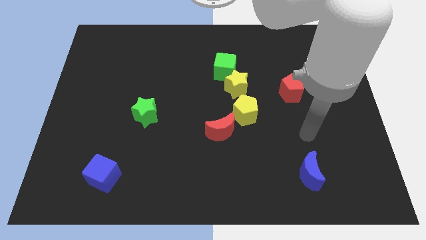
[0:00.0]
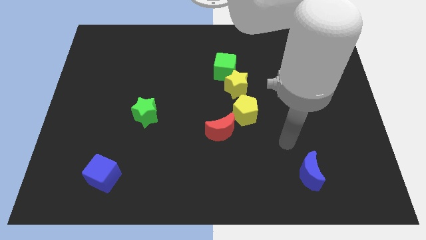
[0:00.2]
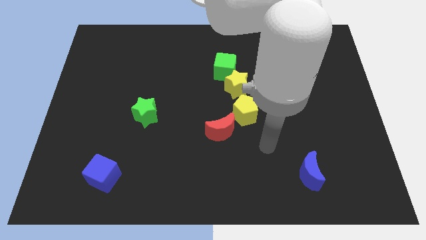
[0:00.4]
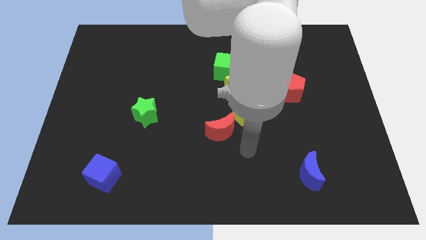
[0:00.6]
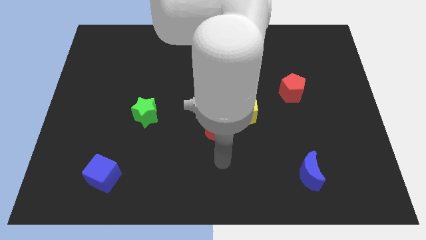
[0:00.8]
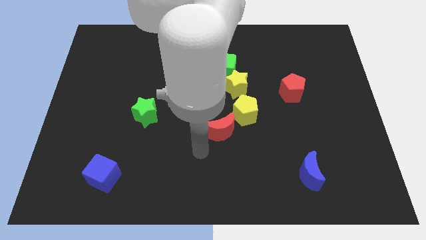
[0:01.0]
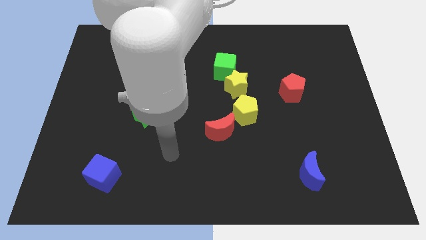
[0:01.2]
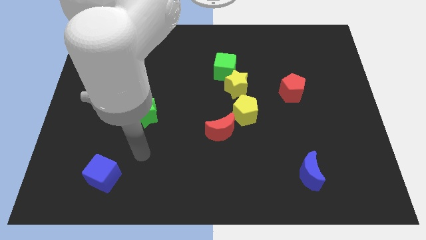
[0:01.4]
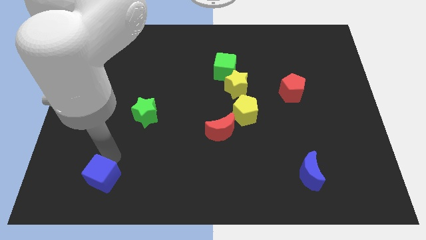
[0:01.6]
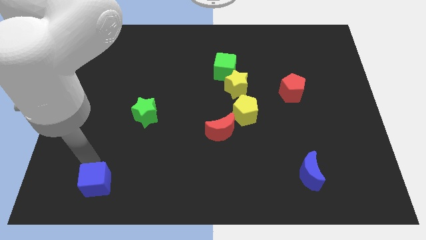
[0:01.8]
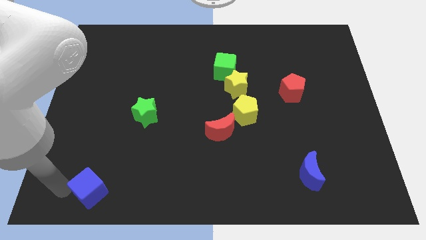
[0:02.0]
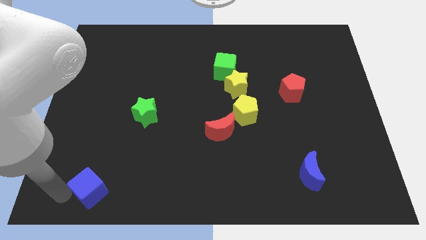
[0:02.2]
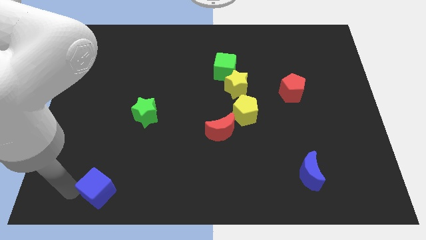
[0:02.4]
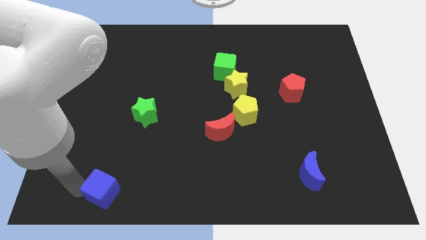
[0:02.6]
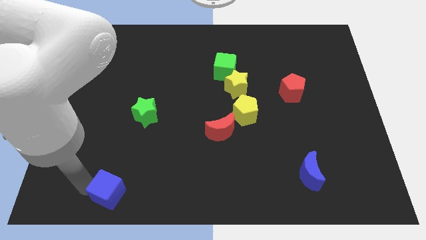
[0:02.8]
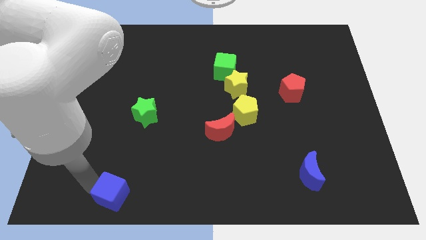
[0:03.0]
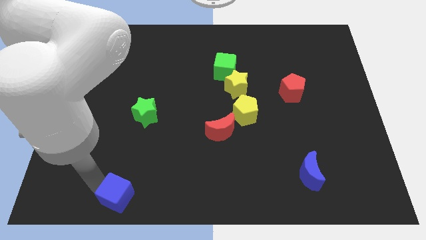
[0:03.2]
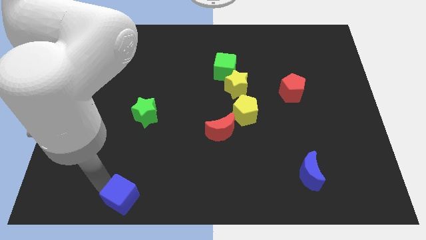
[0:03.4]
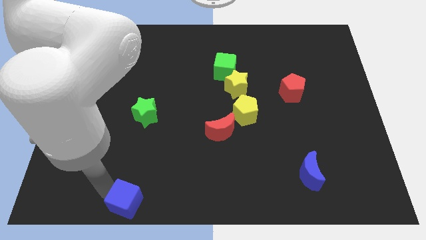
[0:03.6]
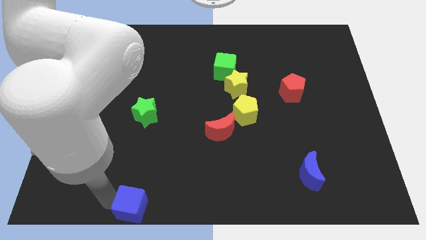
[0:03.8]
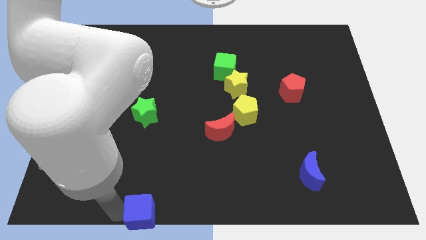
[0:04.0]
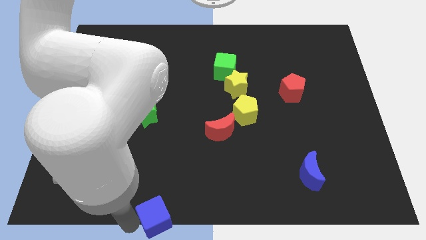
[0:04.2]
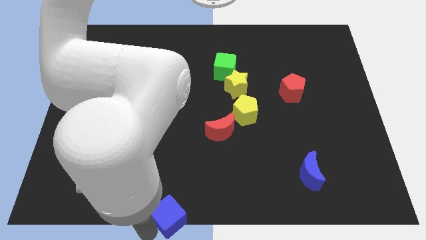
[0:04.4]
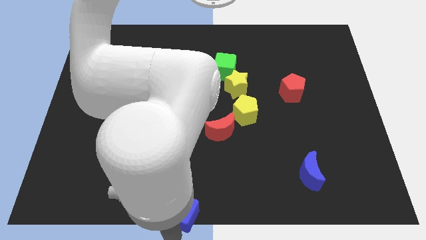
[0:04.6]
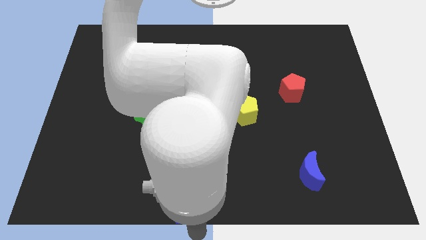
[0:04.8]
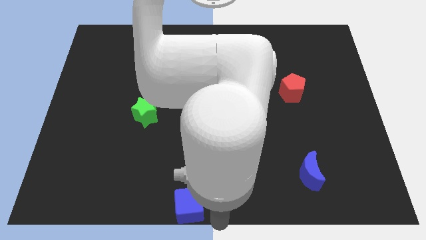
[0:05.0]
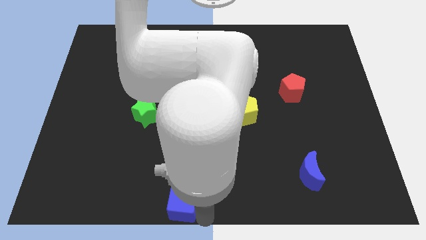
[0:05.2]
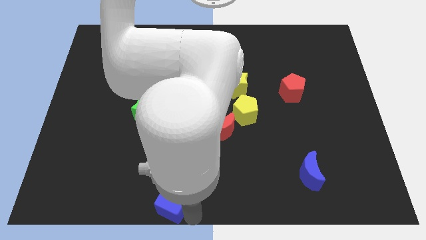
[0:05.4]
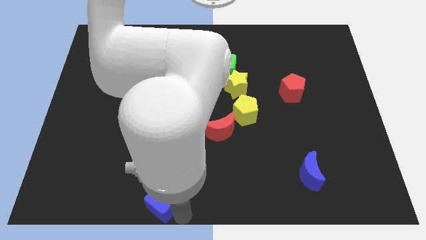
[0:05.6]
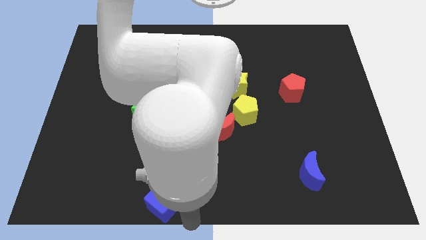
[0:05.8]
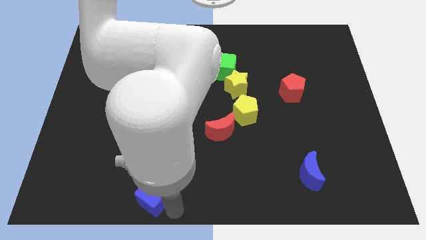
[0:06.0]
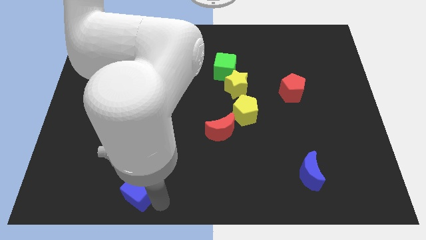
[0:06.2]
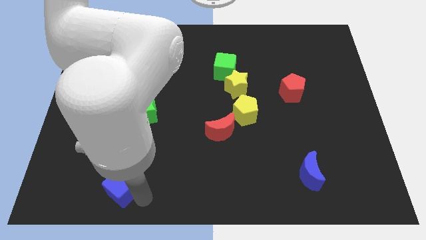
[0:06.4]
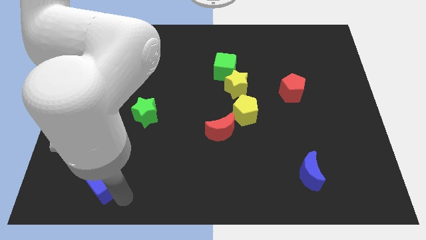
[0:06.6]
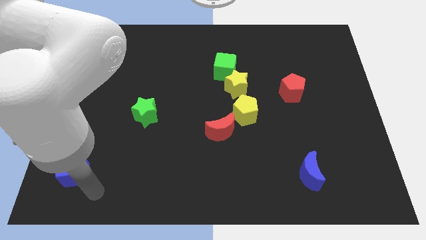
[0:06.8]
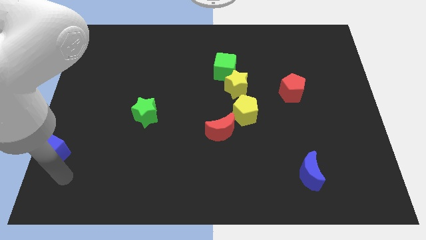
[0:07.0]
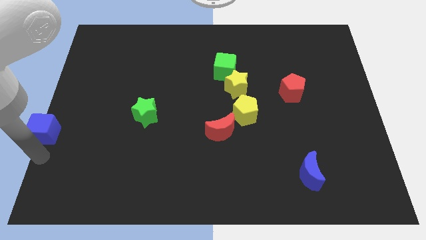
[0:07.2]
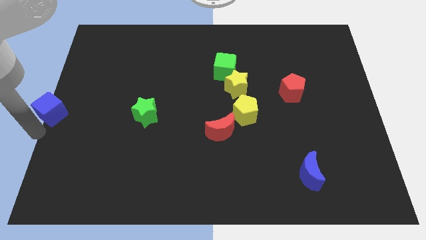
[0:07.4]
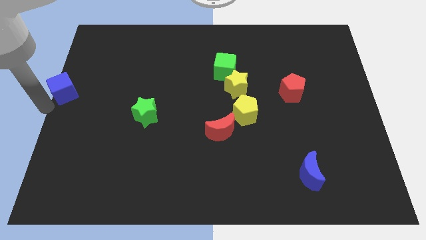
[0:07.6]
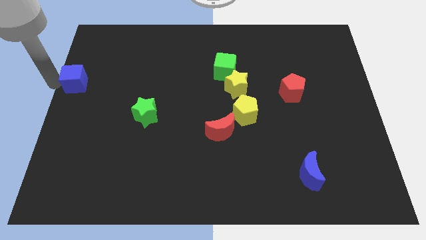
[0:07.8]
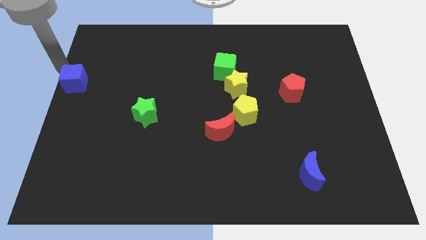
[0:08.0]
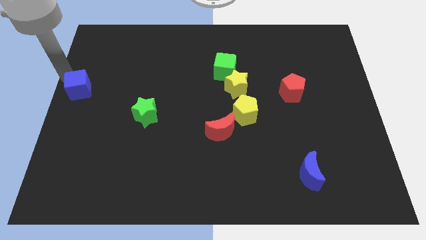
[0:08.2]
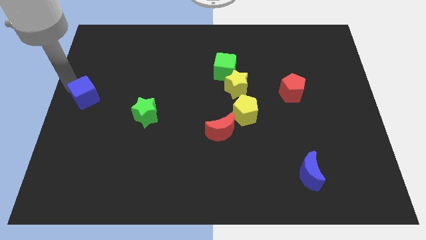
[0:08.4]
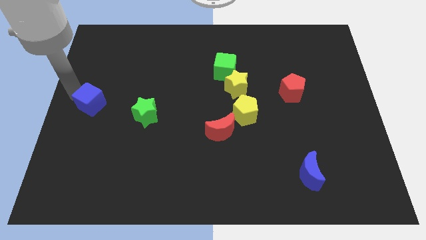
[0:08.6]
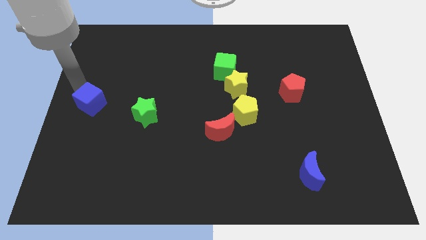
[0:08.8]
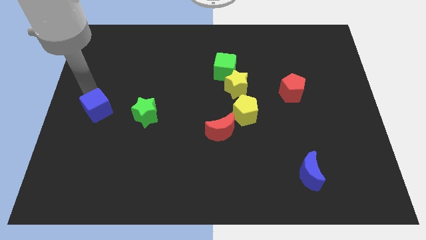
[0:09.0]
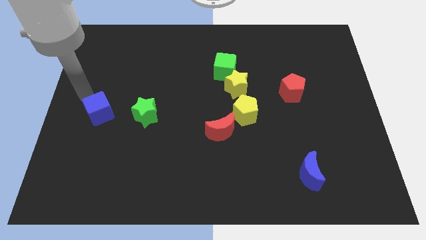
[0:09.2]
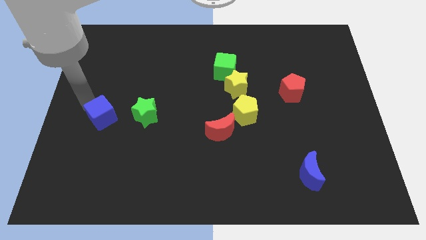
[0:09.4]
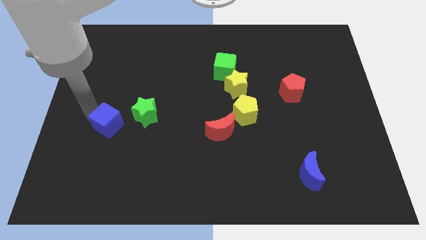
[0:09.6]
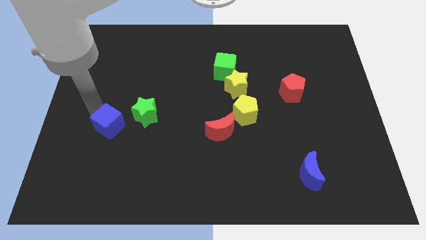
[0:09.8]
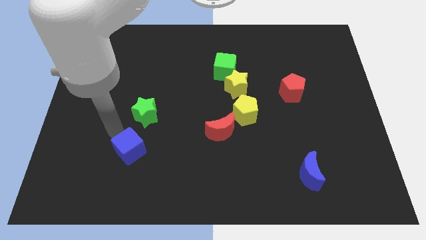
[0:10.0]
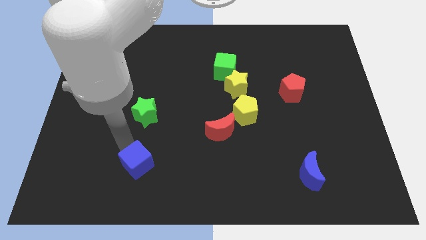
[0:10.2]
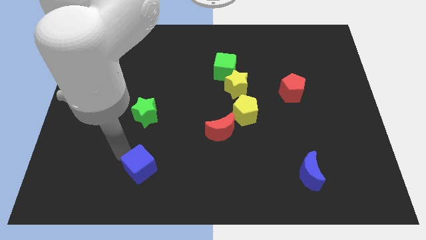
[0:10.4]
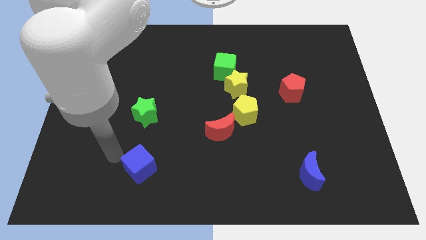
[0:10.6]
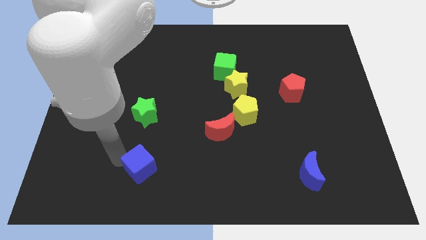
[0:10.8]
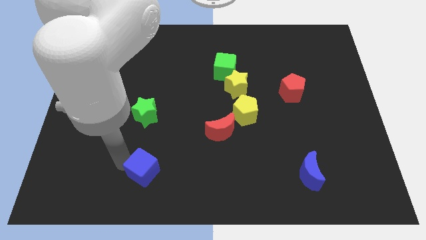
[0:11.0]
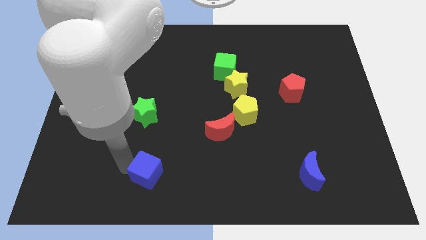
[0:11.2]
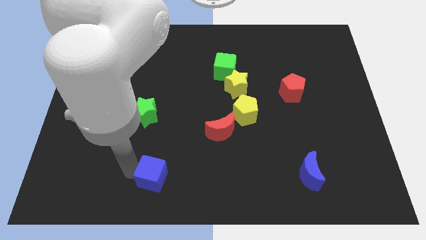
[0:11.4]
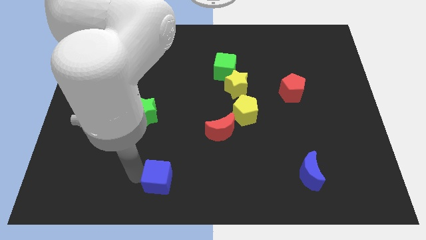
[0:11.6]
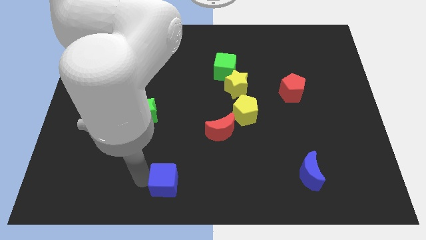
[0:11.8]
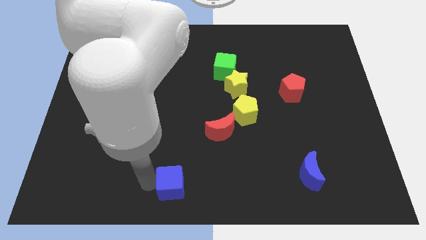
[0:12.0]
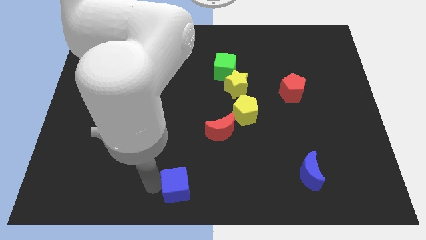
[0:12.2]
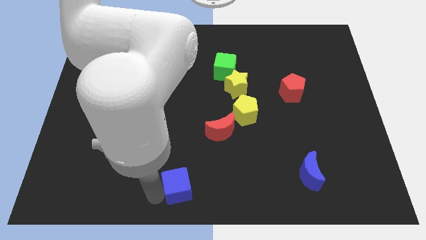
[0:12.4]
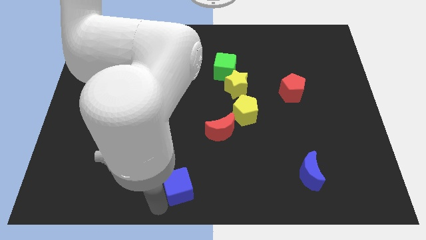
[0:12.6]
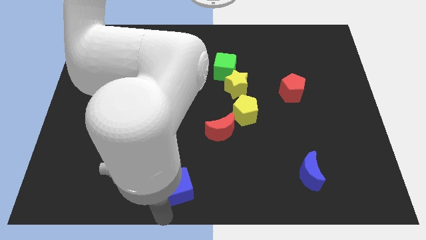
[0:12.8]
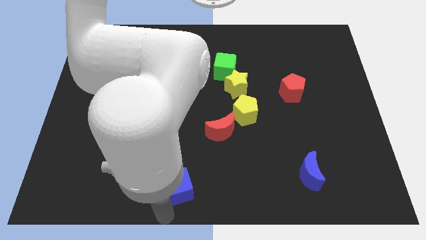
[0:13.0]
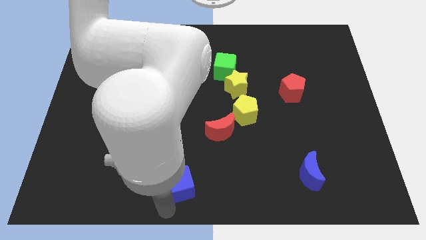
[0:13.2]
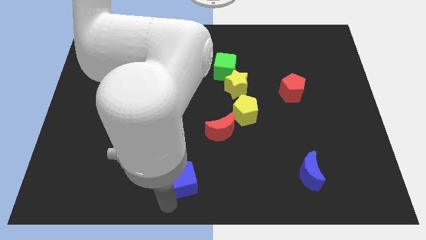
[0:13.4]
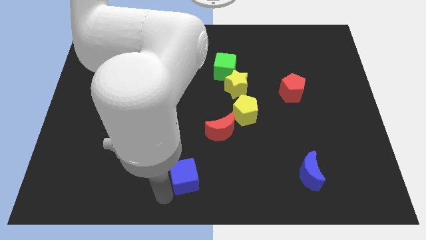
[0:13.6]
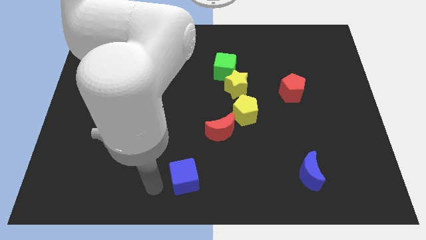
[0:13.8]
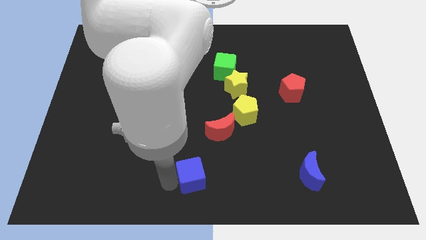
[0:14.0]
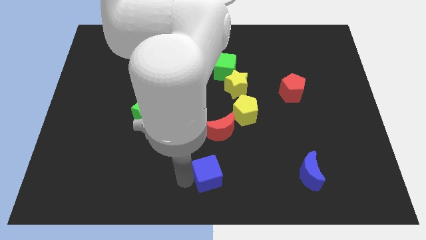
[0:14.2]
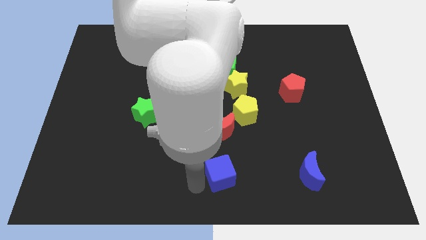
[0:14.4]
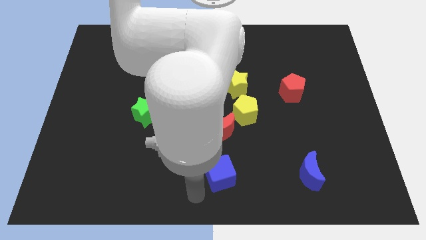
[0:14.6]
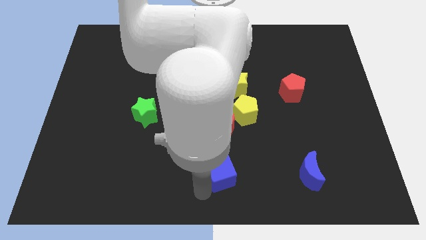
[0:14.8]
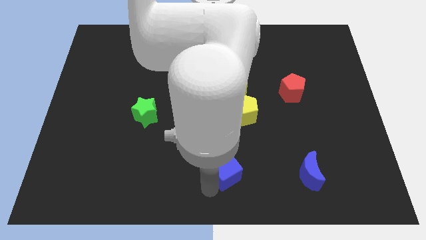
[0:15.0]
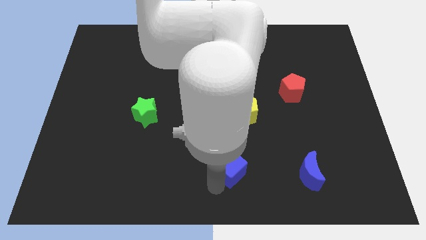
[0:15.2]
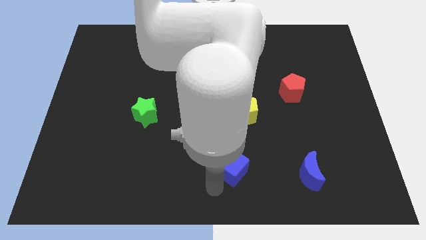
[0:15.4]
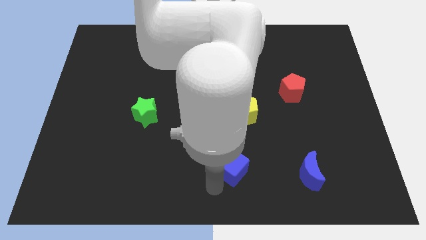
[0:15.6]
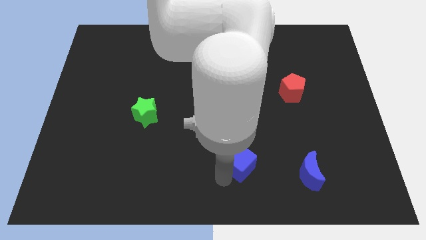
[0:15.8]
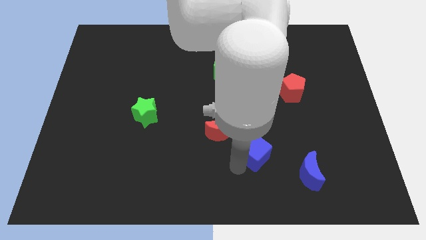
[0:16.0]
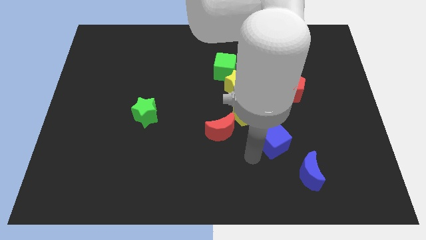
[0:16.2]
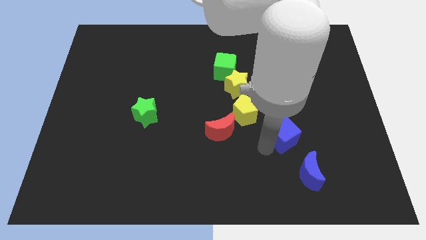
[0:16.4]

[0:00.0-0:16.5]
move the blue cube to the bottom side of the red pentagon
